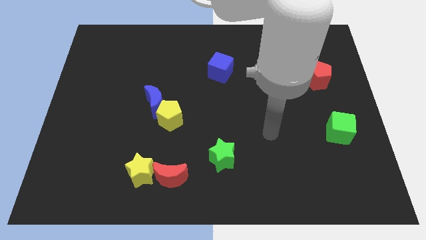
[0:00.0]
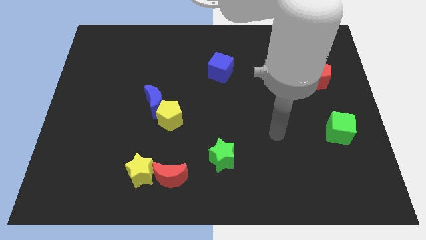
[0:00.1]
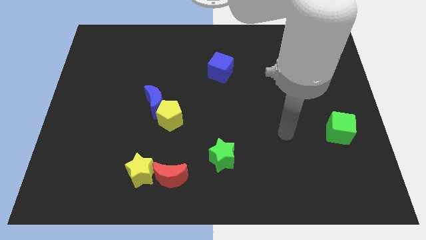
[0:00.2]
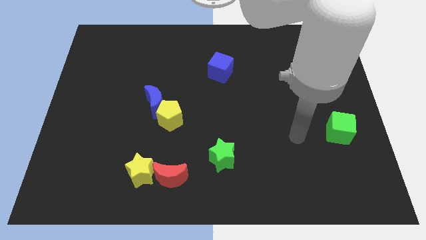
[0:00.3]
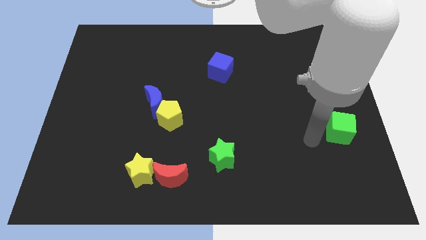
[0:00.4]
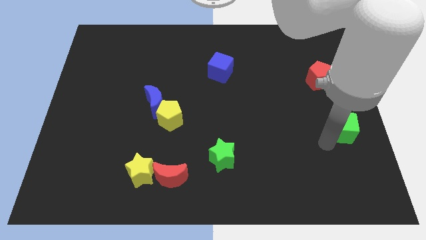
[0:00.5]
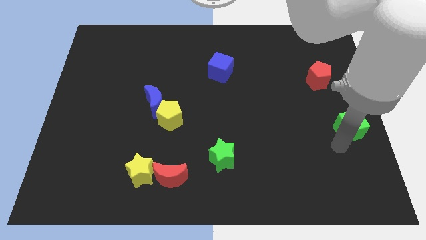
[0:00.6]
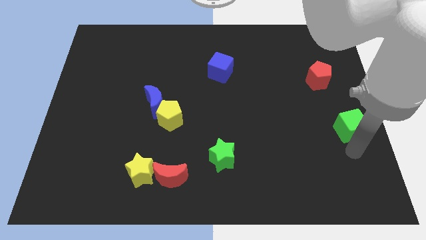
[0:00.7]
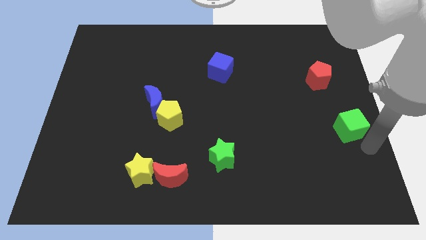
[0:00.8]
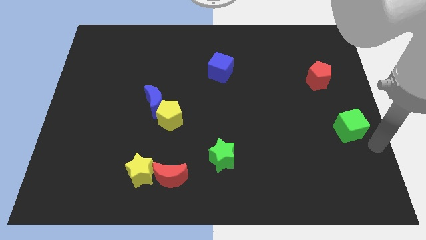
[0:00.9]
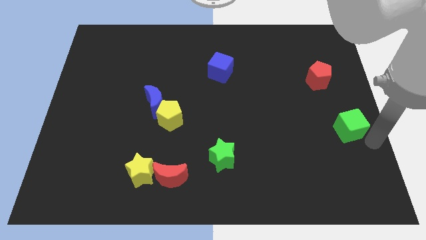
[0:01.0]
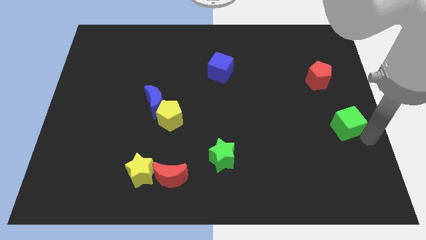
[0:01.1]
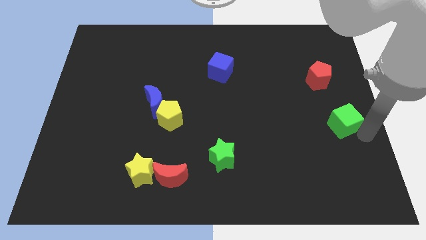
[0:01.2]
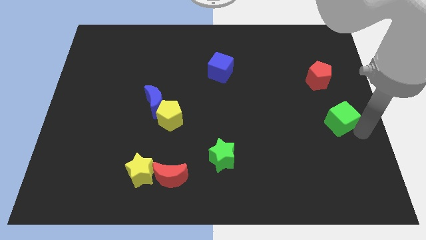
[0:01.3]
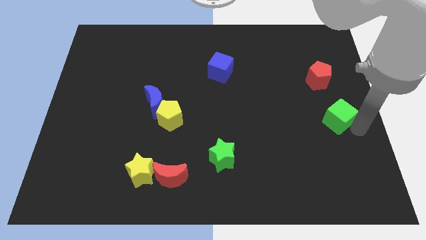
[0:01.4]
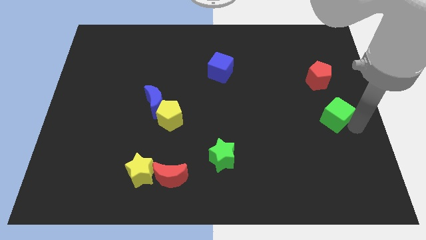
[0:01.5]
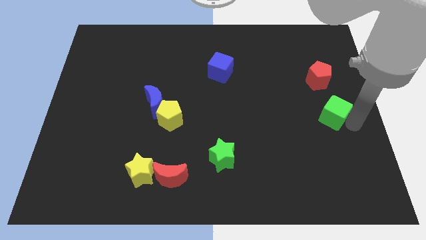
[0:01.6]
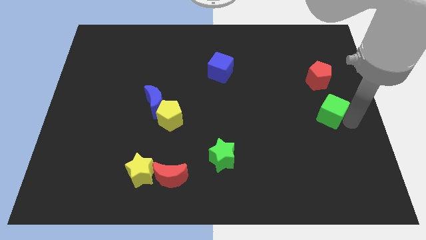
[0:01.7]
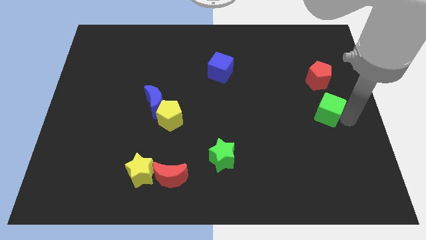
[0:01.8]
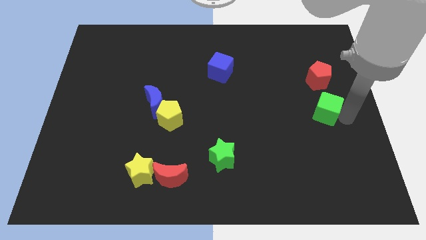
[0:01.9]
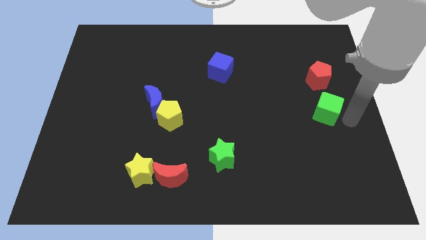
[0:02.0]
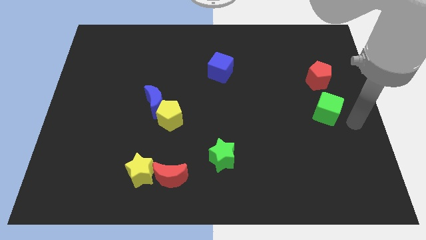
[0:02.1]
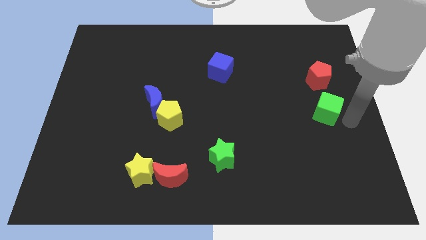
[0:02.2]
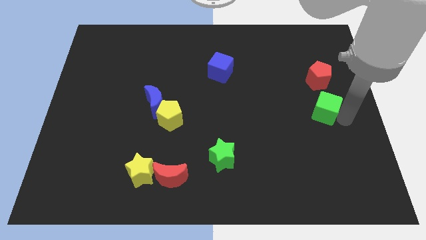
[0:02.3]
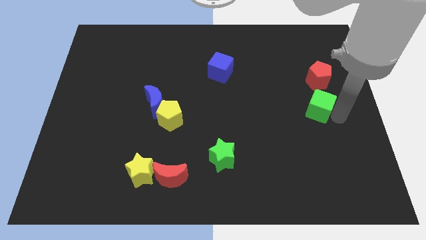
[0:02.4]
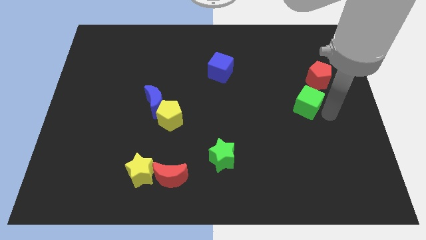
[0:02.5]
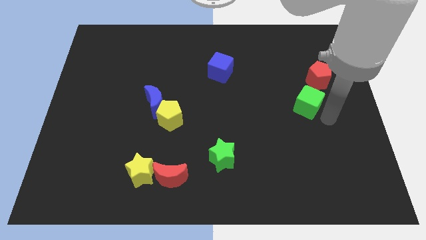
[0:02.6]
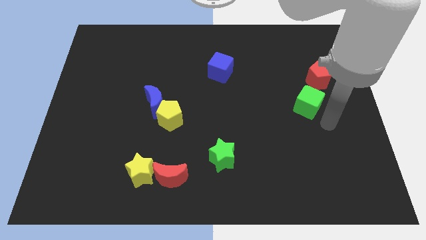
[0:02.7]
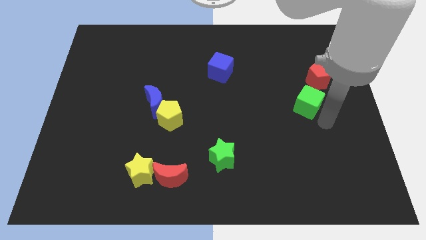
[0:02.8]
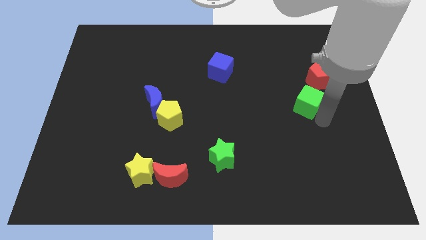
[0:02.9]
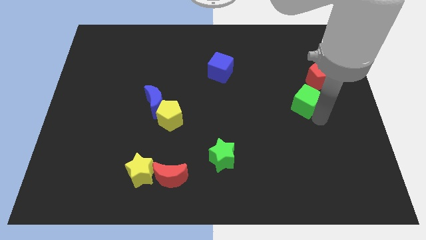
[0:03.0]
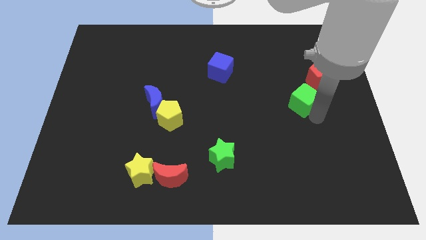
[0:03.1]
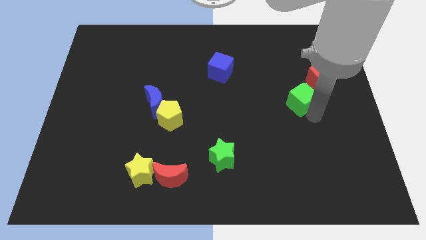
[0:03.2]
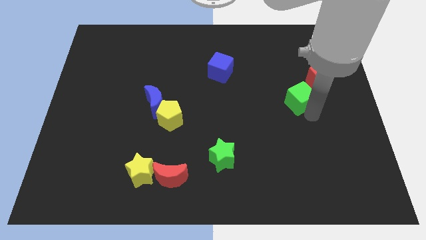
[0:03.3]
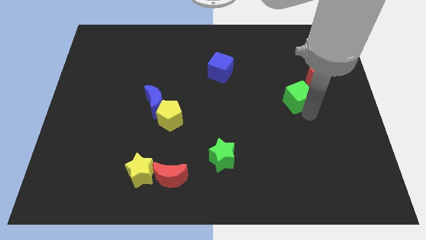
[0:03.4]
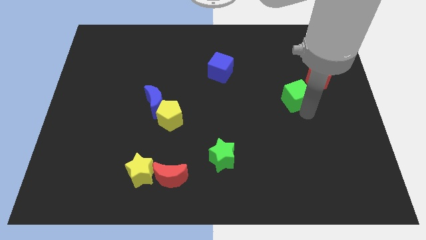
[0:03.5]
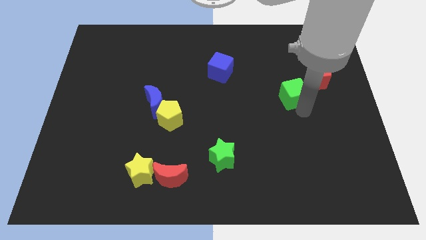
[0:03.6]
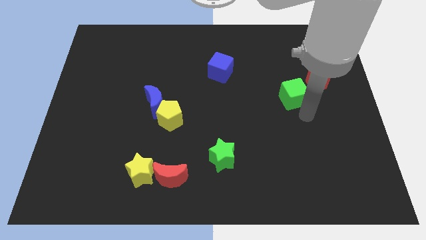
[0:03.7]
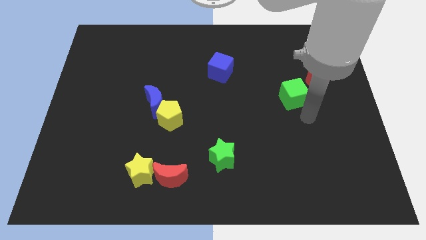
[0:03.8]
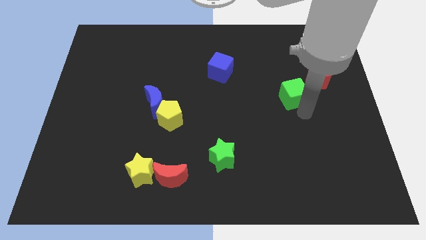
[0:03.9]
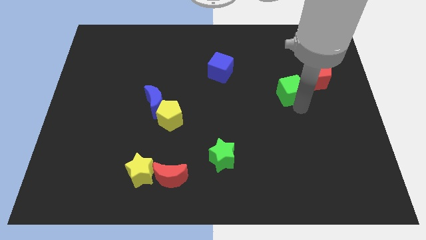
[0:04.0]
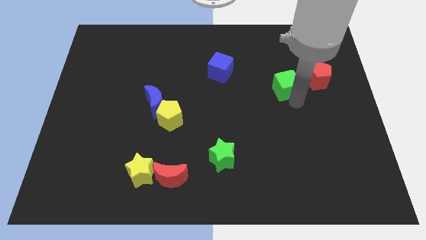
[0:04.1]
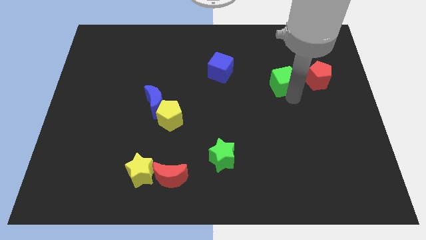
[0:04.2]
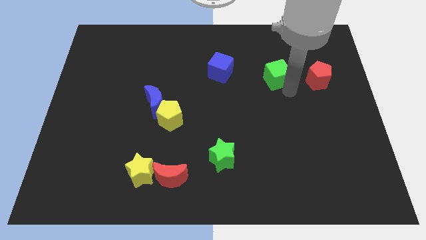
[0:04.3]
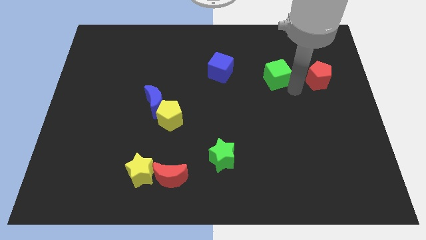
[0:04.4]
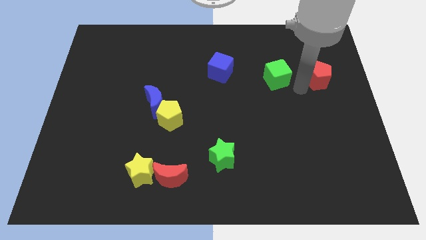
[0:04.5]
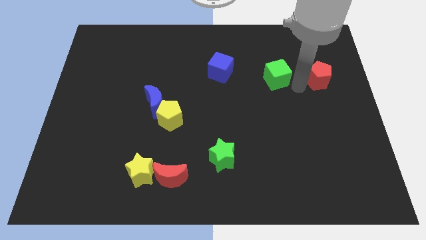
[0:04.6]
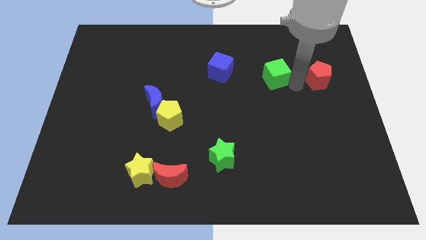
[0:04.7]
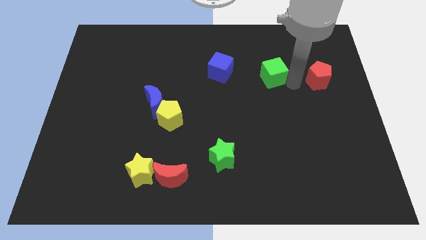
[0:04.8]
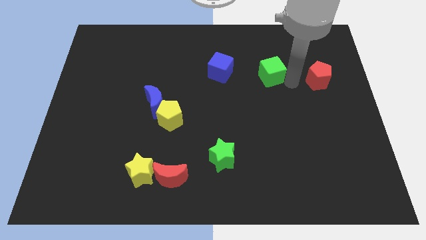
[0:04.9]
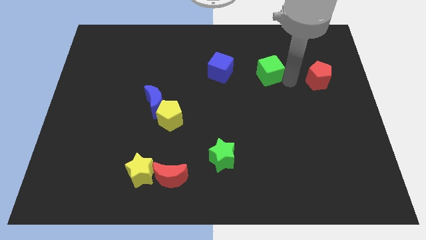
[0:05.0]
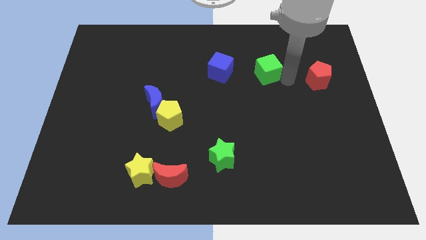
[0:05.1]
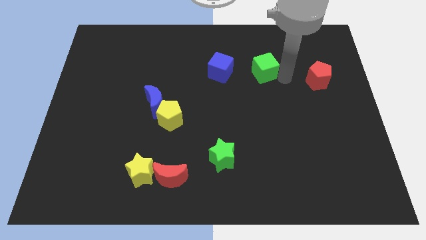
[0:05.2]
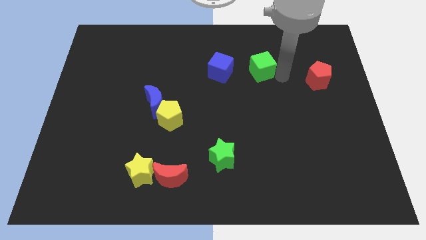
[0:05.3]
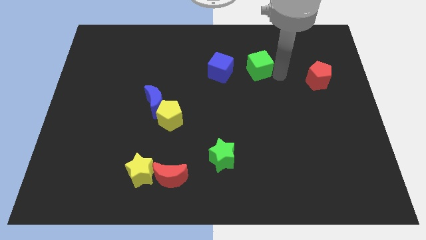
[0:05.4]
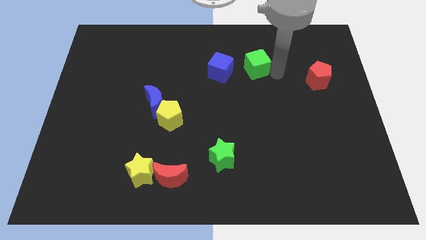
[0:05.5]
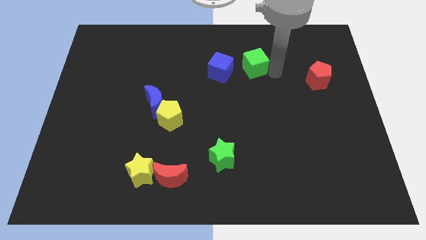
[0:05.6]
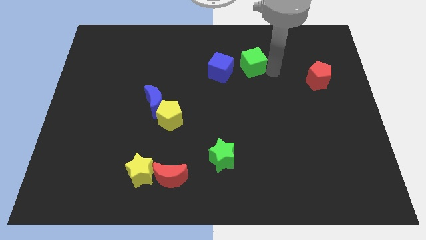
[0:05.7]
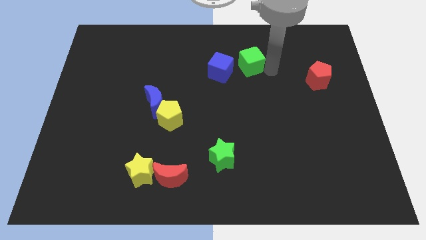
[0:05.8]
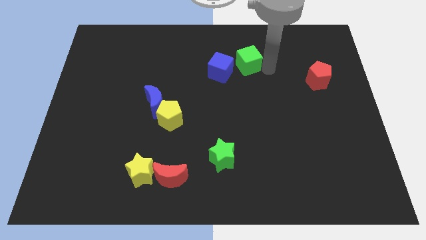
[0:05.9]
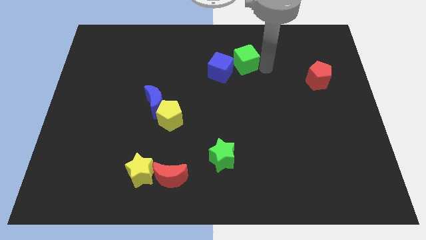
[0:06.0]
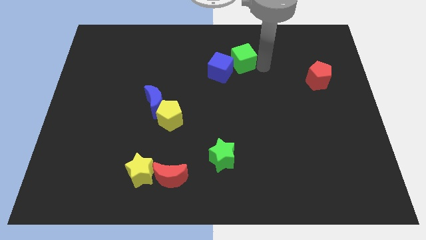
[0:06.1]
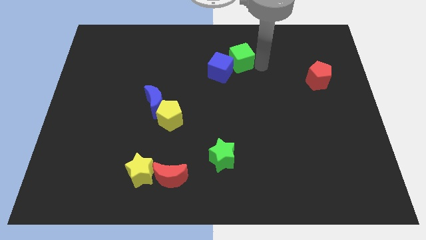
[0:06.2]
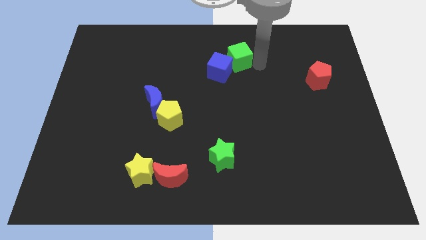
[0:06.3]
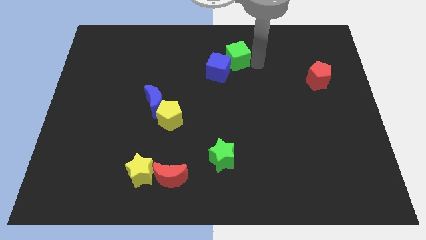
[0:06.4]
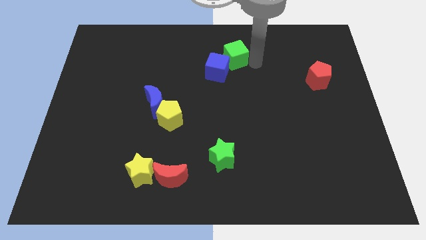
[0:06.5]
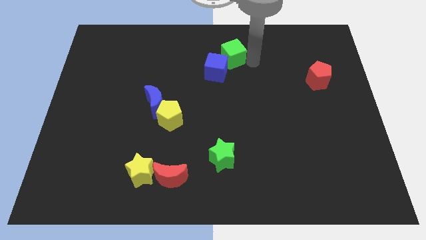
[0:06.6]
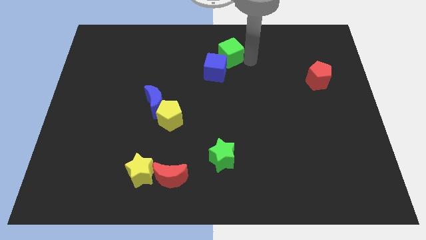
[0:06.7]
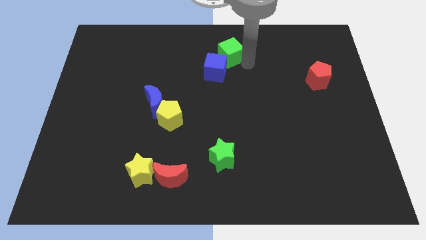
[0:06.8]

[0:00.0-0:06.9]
move the green cube to the top
